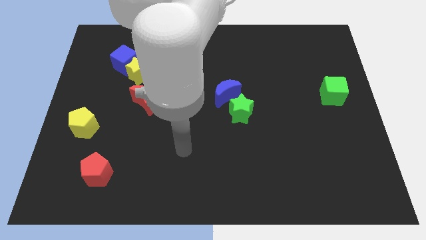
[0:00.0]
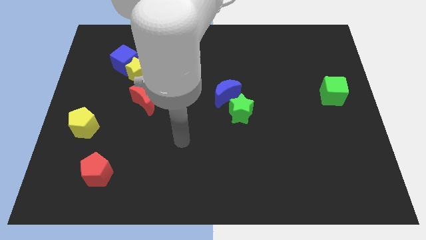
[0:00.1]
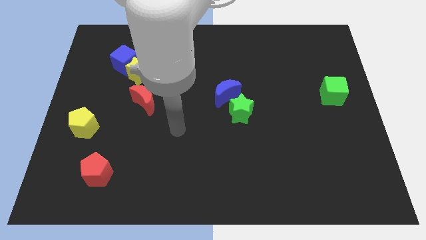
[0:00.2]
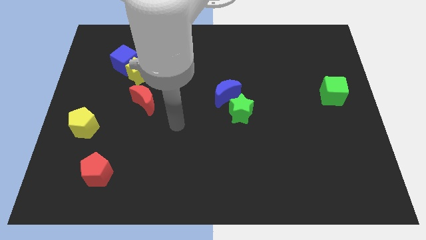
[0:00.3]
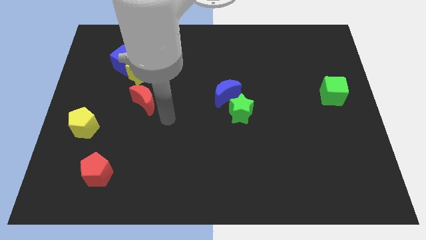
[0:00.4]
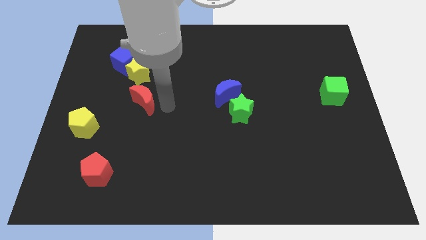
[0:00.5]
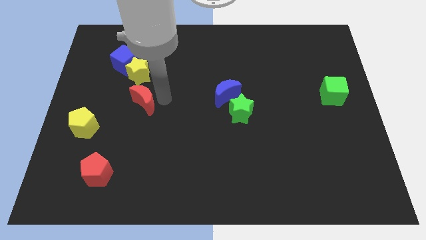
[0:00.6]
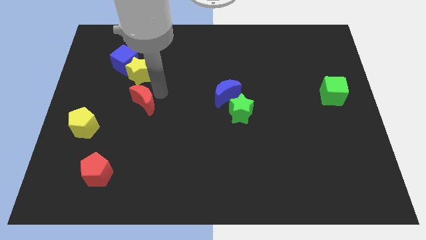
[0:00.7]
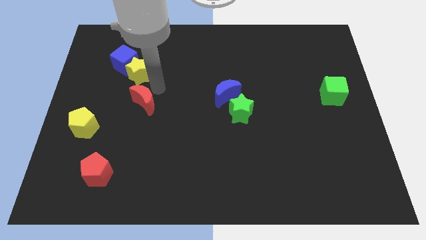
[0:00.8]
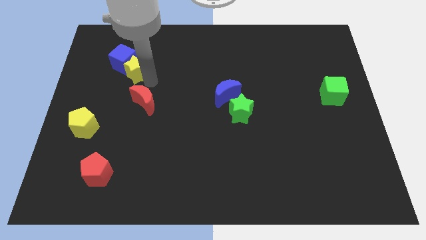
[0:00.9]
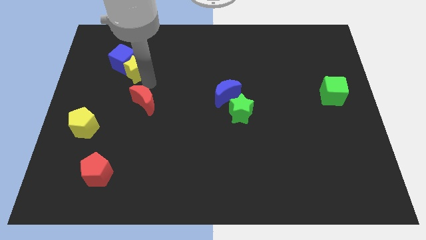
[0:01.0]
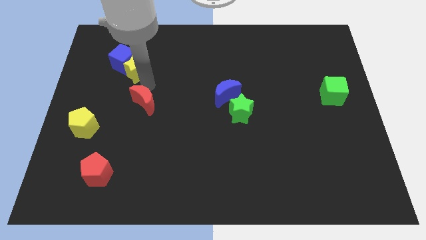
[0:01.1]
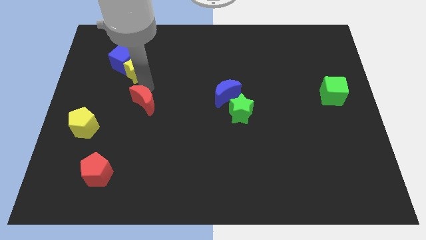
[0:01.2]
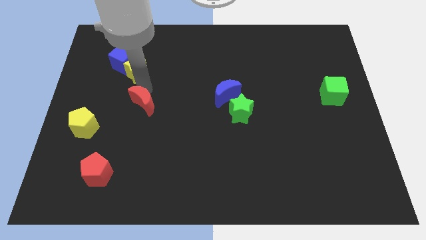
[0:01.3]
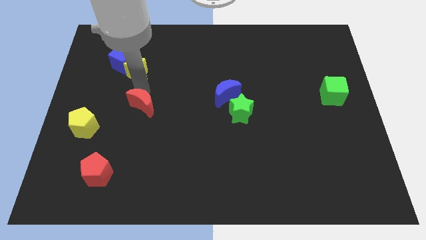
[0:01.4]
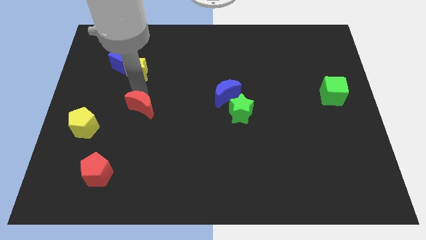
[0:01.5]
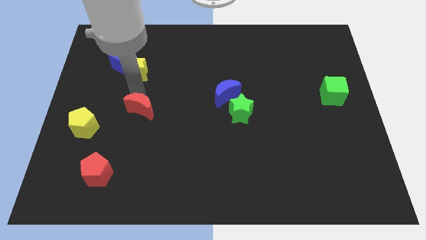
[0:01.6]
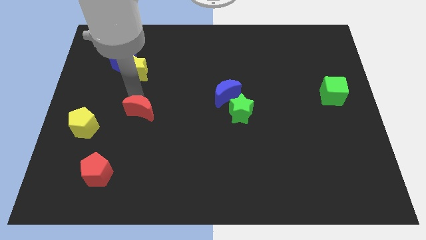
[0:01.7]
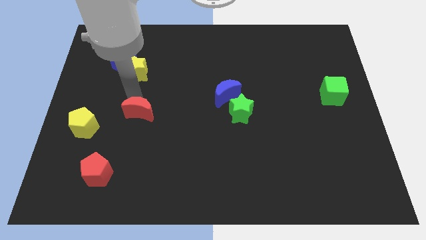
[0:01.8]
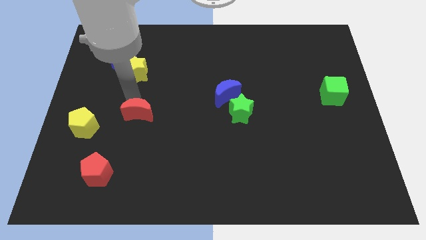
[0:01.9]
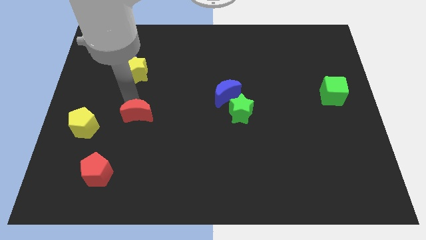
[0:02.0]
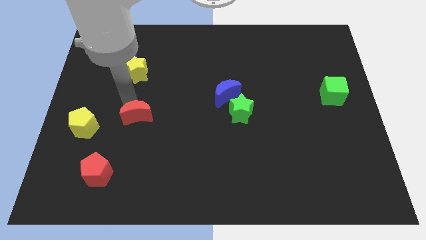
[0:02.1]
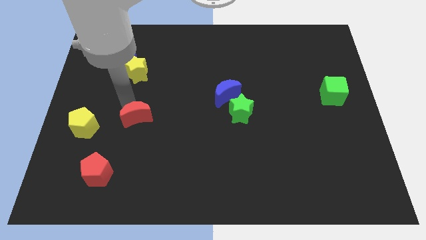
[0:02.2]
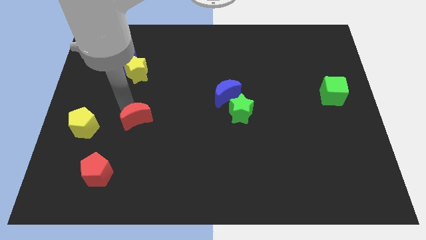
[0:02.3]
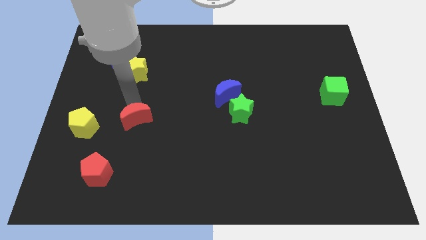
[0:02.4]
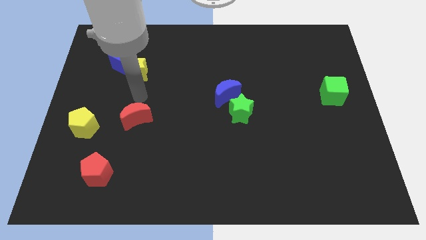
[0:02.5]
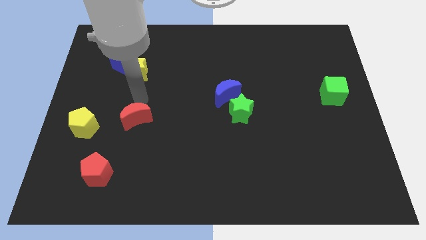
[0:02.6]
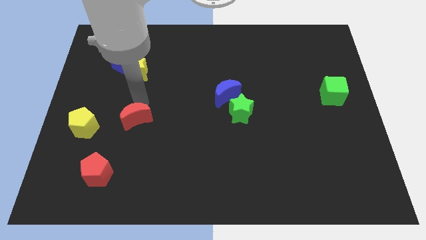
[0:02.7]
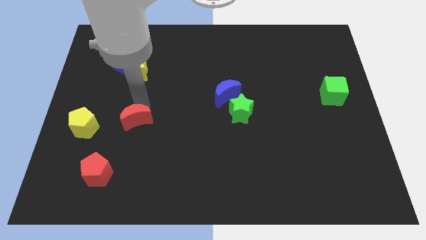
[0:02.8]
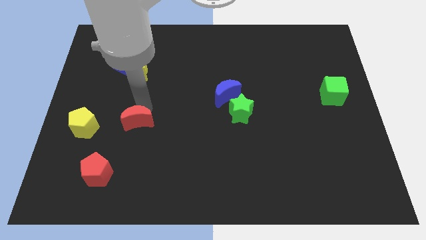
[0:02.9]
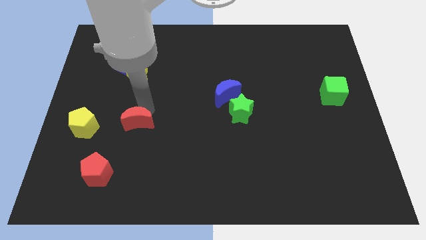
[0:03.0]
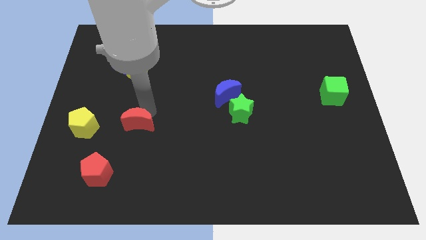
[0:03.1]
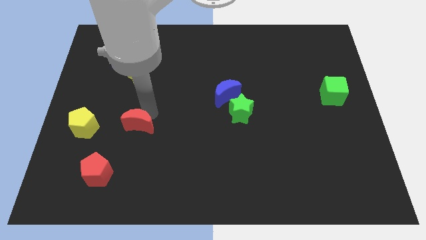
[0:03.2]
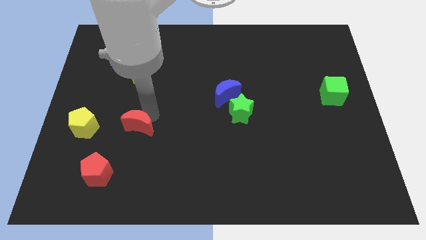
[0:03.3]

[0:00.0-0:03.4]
move the red moon a little down

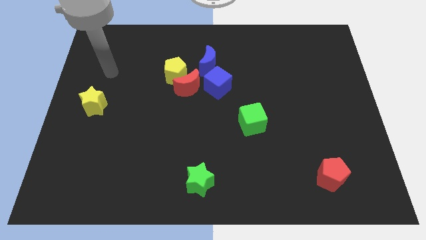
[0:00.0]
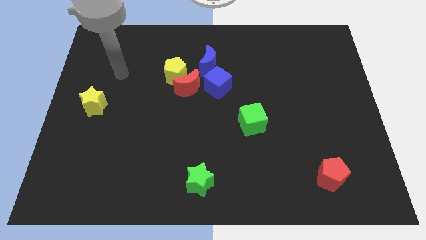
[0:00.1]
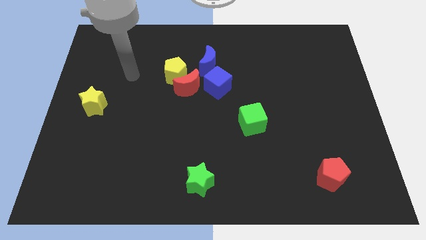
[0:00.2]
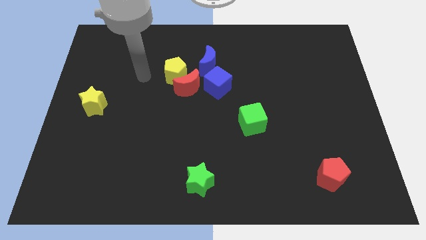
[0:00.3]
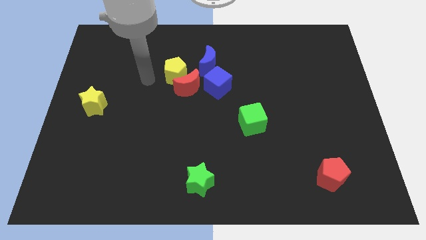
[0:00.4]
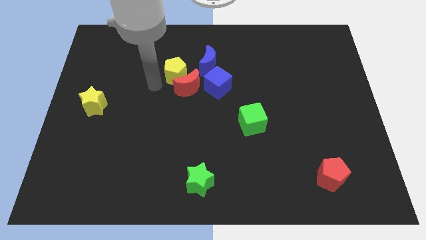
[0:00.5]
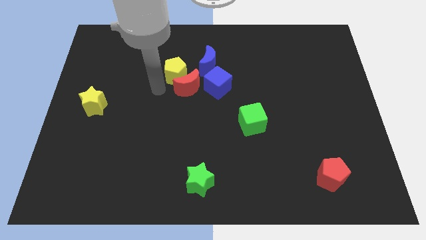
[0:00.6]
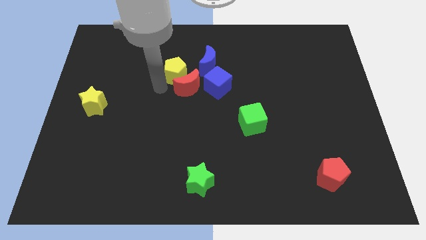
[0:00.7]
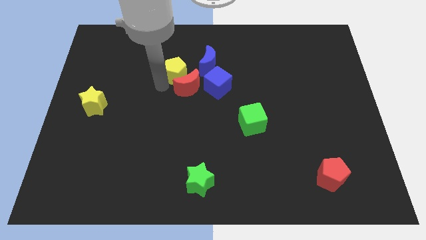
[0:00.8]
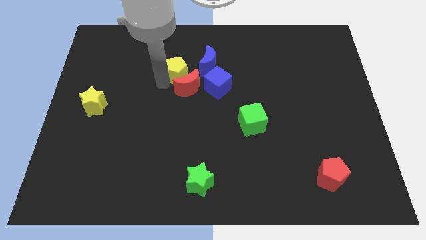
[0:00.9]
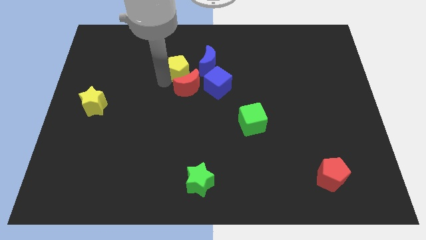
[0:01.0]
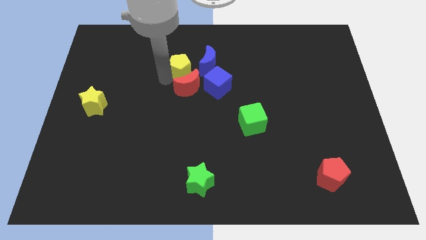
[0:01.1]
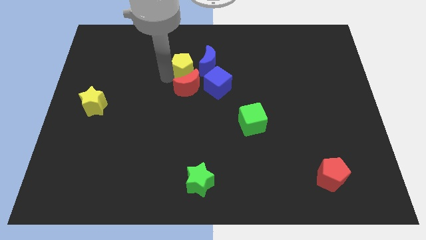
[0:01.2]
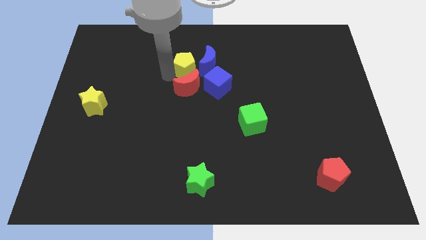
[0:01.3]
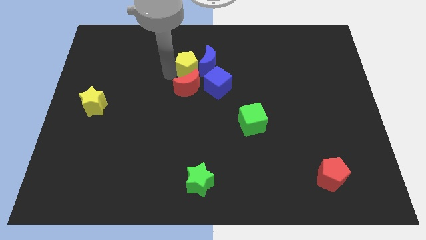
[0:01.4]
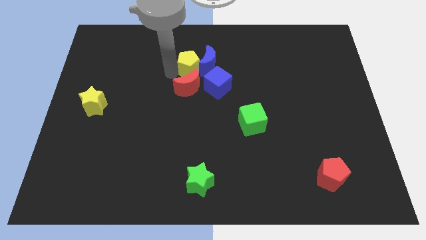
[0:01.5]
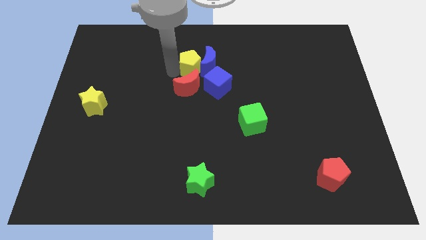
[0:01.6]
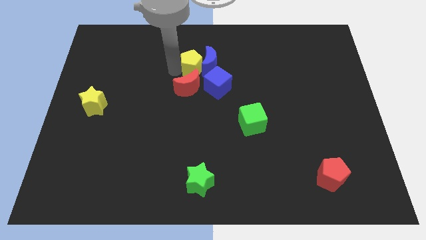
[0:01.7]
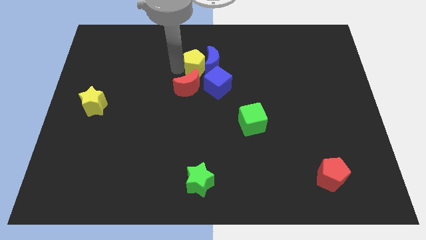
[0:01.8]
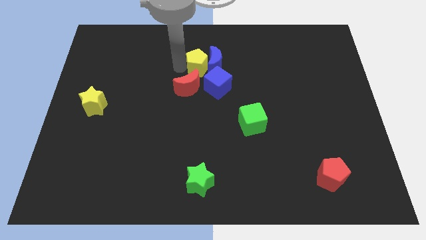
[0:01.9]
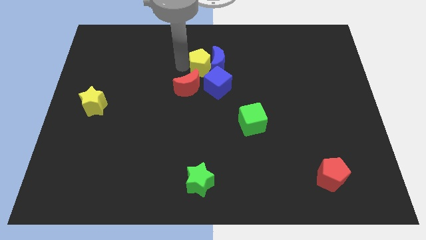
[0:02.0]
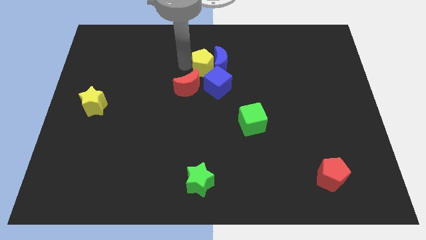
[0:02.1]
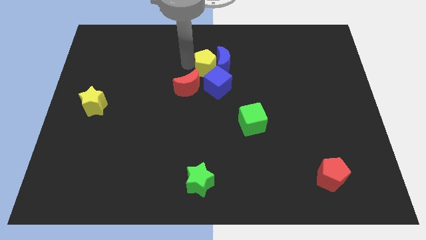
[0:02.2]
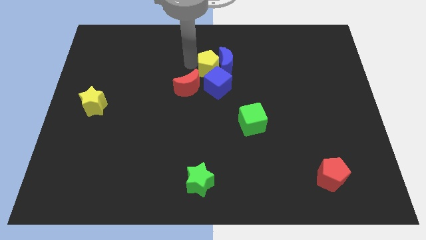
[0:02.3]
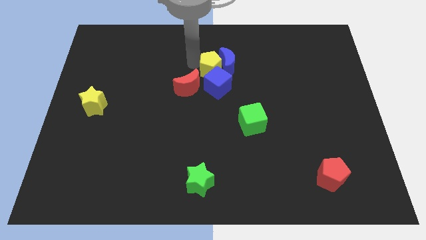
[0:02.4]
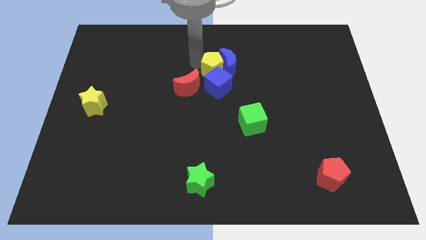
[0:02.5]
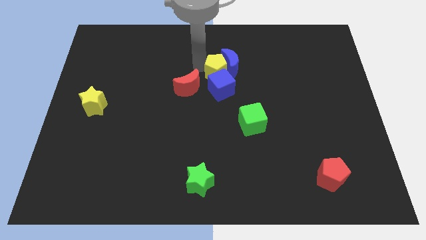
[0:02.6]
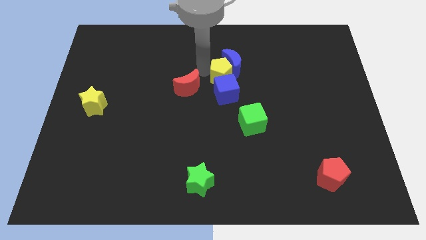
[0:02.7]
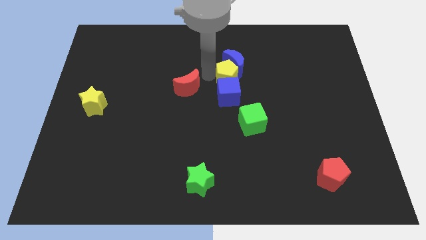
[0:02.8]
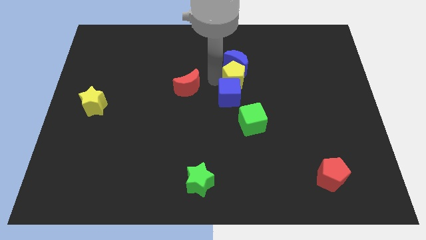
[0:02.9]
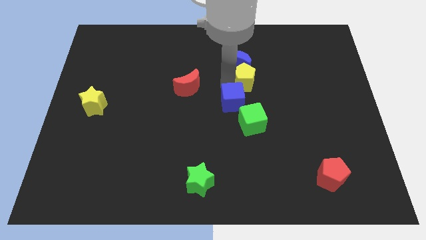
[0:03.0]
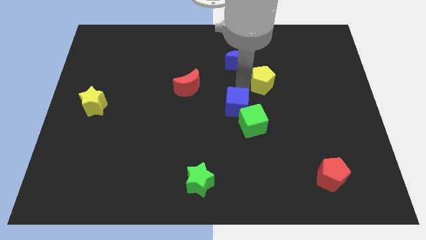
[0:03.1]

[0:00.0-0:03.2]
move the yellow pentagon to the right

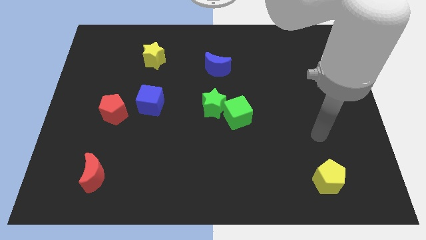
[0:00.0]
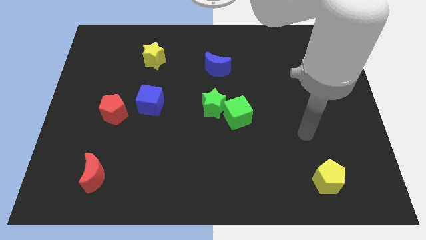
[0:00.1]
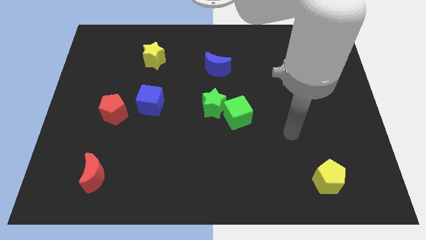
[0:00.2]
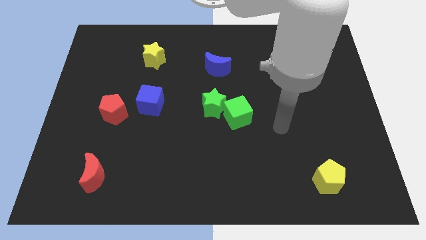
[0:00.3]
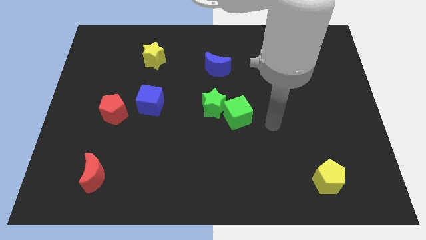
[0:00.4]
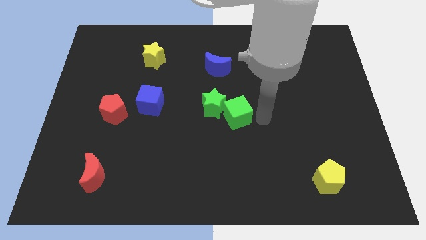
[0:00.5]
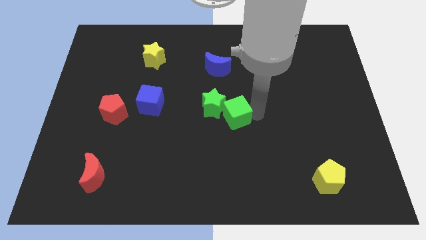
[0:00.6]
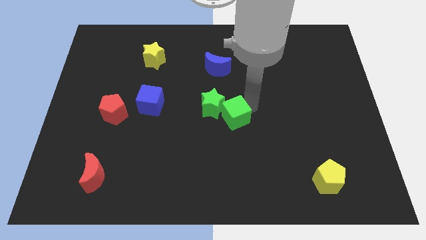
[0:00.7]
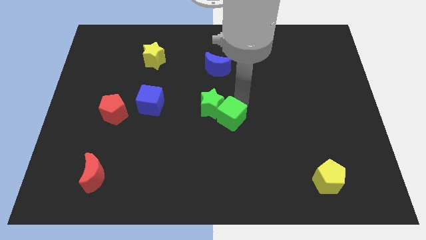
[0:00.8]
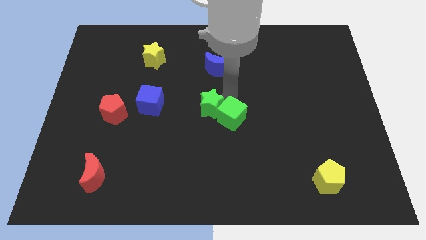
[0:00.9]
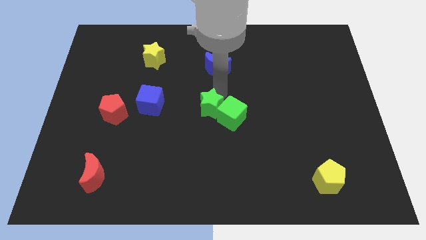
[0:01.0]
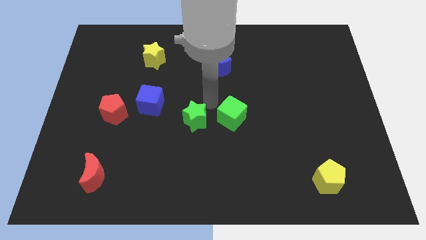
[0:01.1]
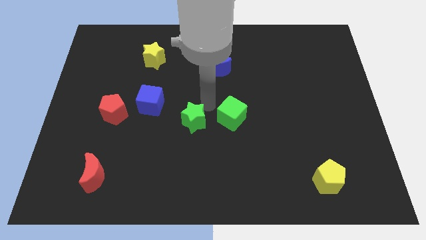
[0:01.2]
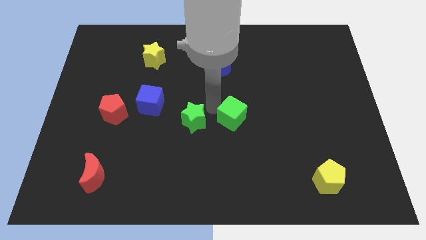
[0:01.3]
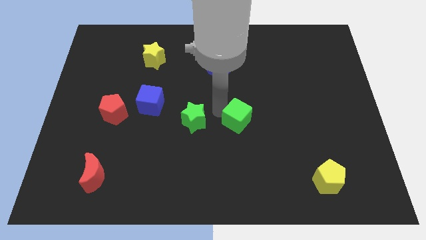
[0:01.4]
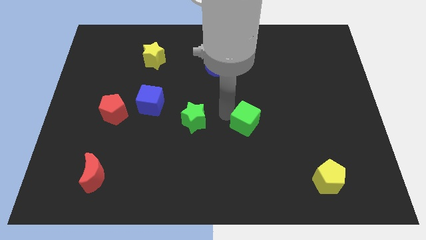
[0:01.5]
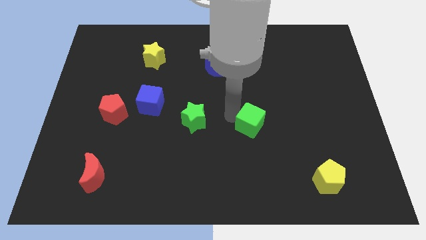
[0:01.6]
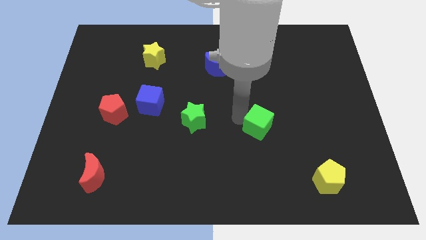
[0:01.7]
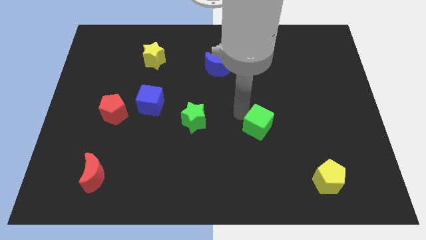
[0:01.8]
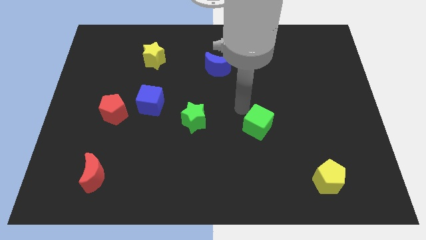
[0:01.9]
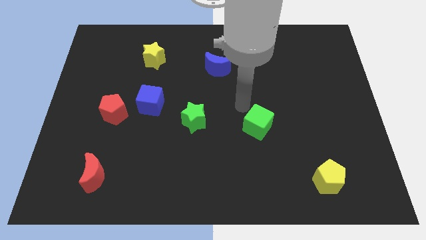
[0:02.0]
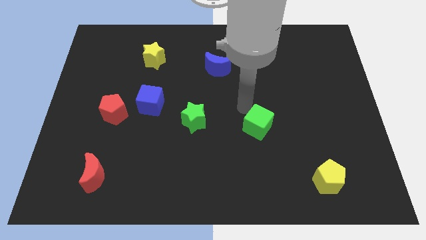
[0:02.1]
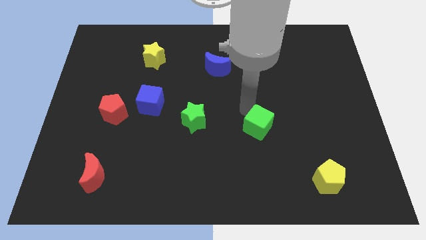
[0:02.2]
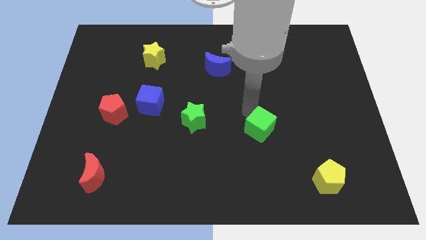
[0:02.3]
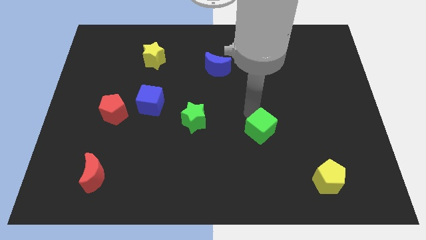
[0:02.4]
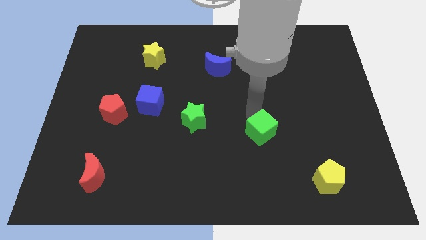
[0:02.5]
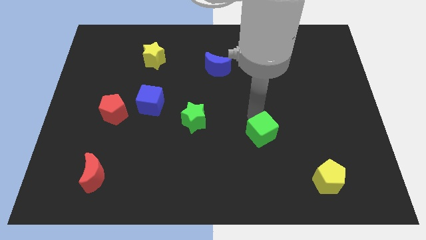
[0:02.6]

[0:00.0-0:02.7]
slightly push the green cube down and right diagonally
